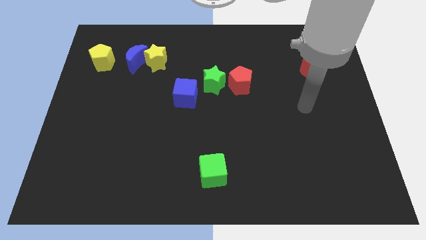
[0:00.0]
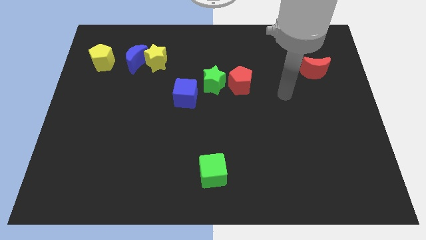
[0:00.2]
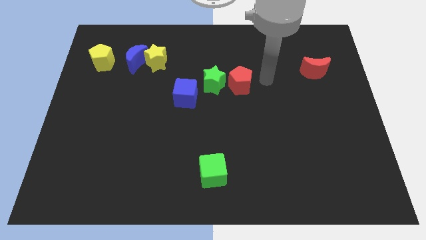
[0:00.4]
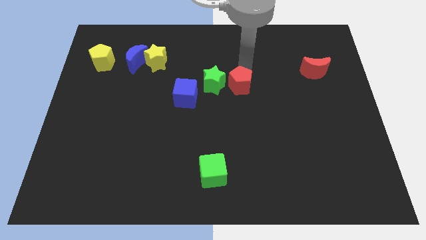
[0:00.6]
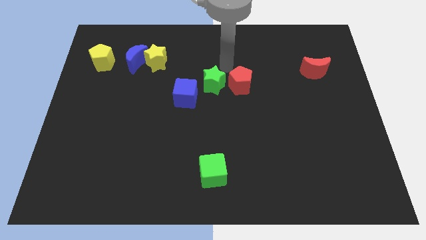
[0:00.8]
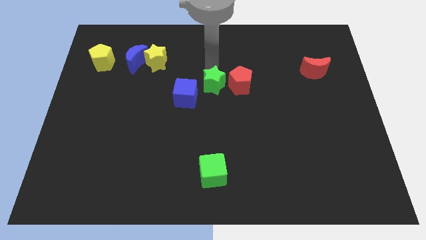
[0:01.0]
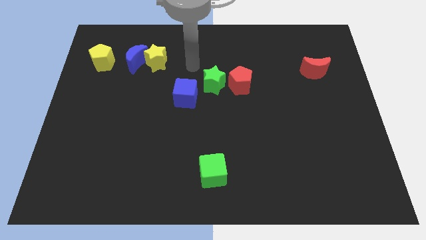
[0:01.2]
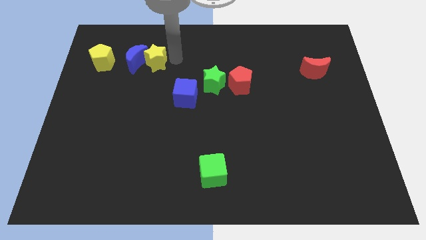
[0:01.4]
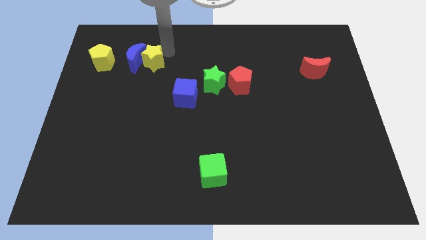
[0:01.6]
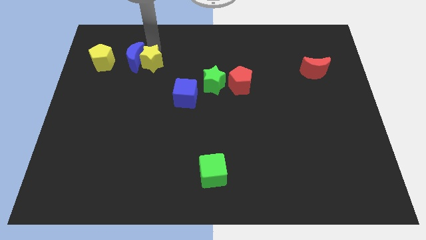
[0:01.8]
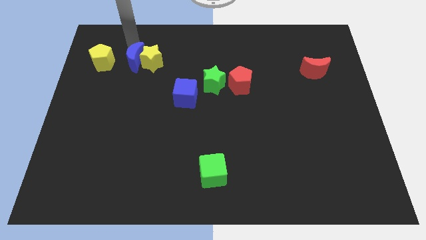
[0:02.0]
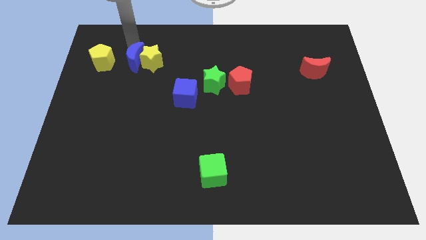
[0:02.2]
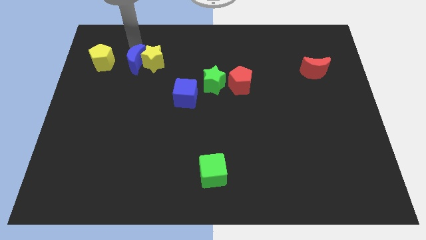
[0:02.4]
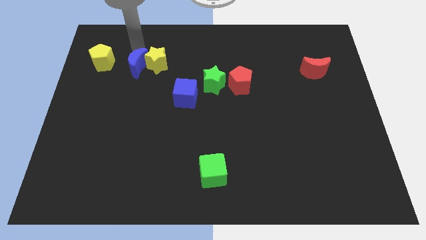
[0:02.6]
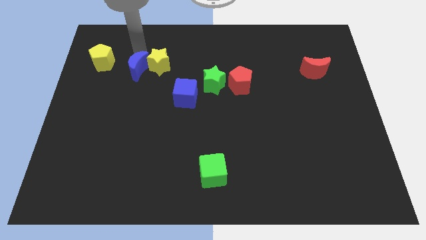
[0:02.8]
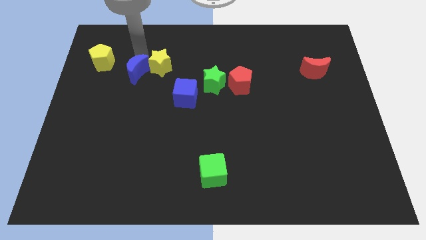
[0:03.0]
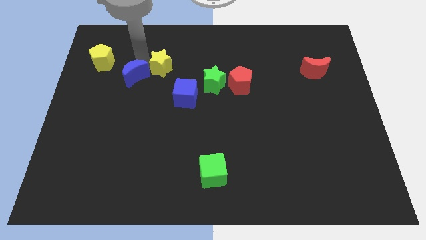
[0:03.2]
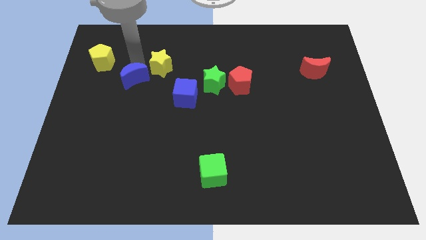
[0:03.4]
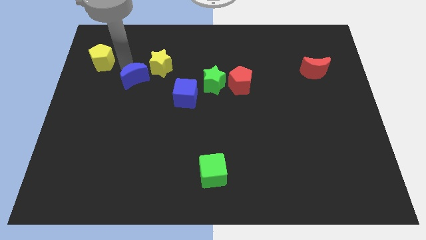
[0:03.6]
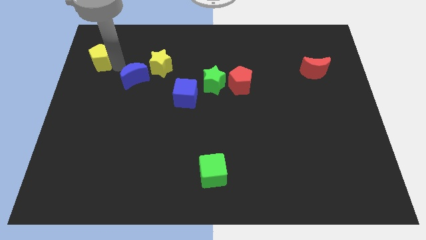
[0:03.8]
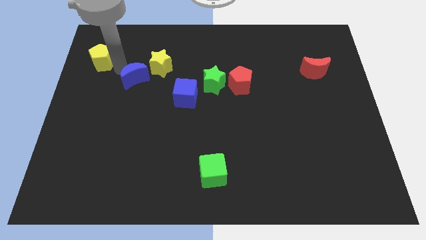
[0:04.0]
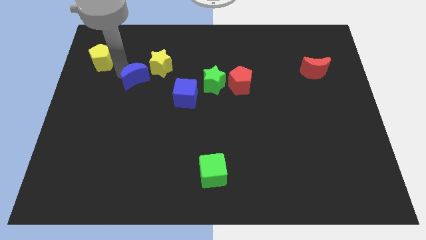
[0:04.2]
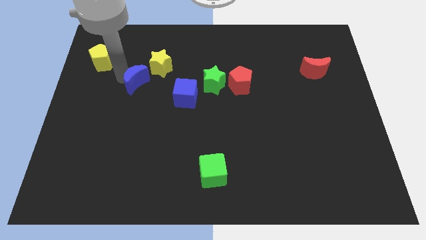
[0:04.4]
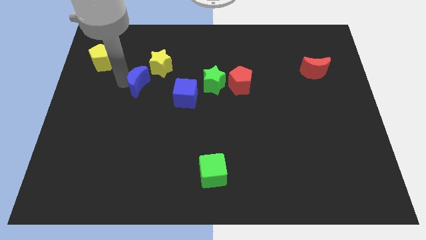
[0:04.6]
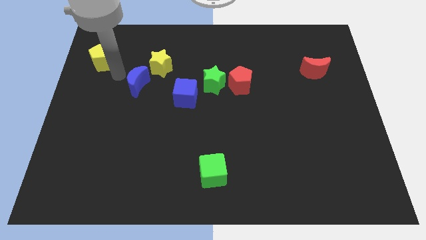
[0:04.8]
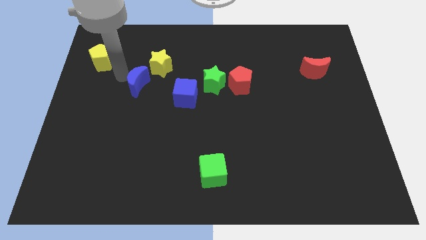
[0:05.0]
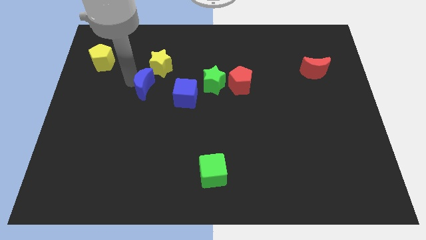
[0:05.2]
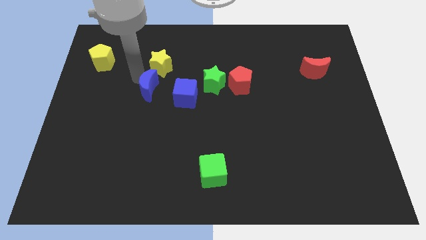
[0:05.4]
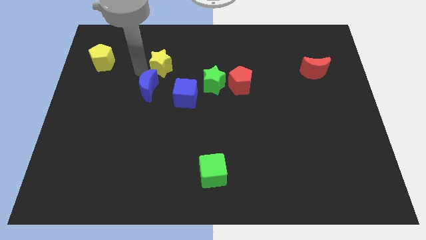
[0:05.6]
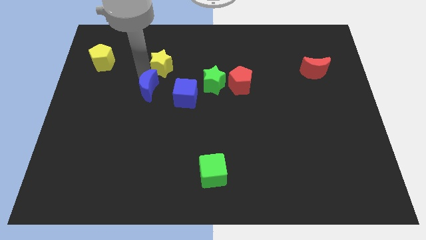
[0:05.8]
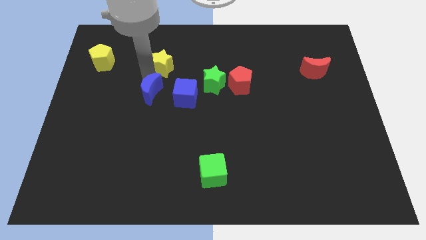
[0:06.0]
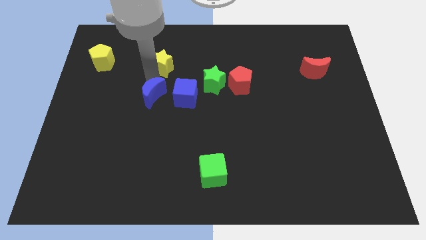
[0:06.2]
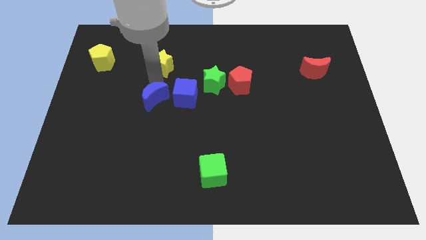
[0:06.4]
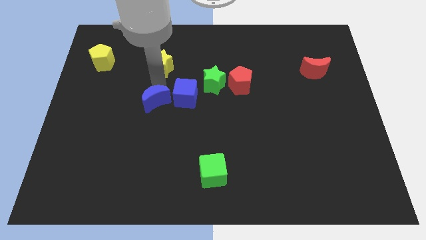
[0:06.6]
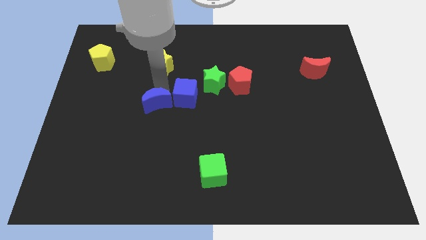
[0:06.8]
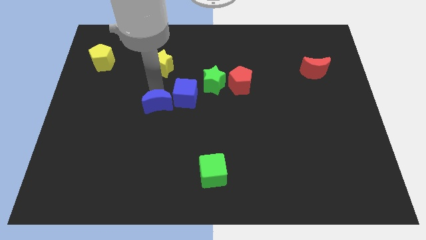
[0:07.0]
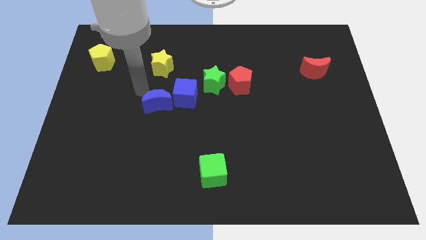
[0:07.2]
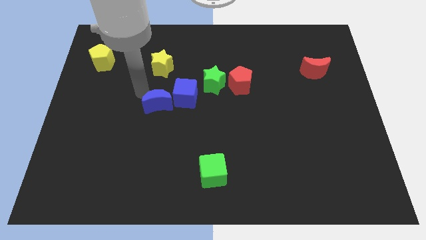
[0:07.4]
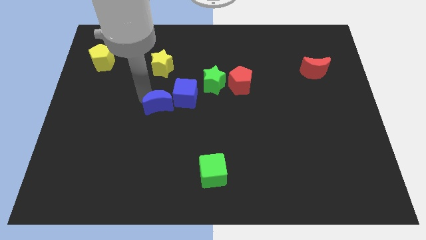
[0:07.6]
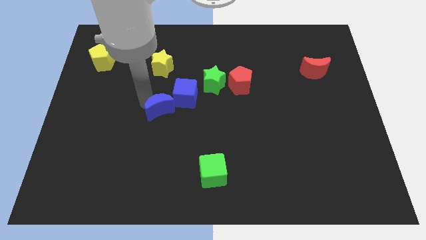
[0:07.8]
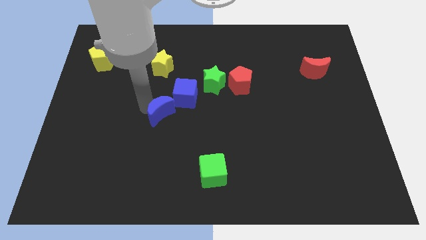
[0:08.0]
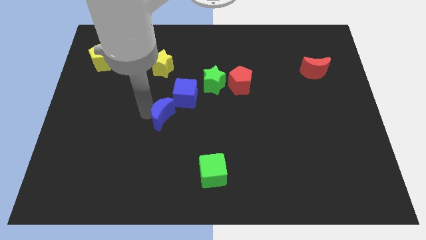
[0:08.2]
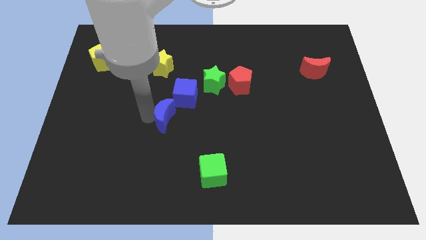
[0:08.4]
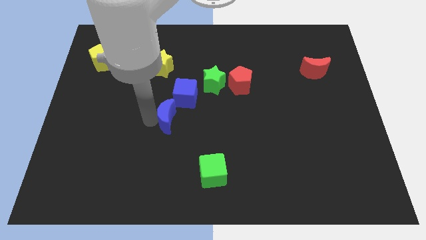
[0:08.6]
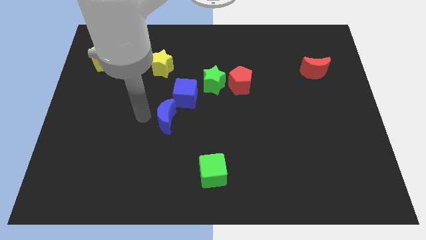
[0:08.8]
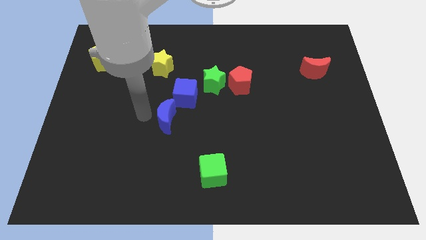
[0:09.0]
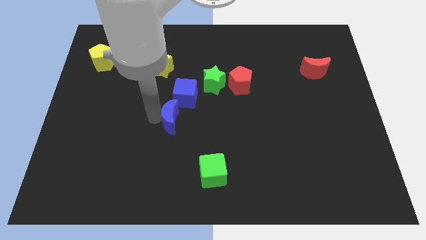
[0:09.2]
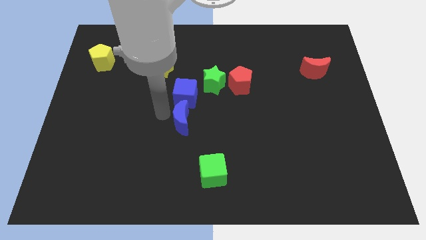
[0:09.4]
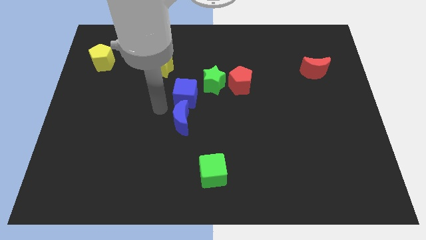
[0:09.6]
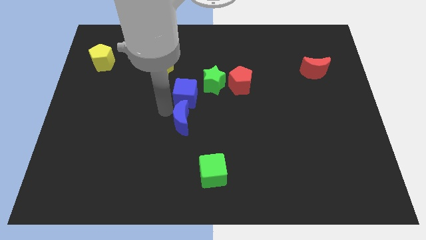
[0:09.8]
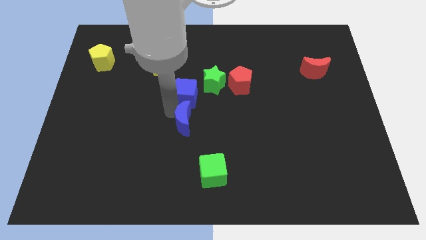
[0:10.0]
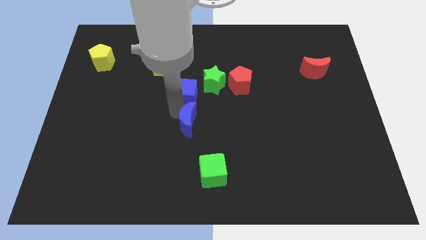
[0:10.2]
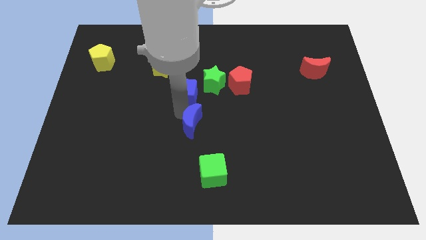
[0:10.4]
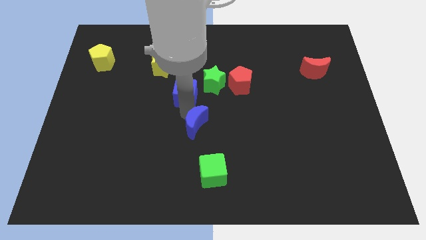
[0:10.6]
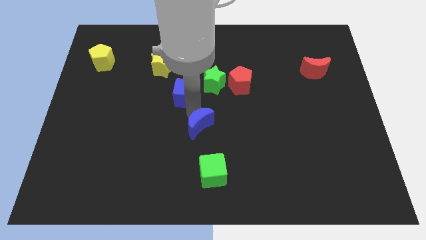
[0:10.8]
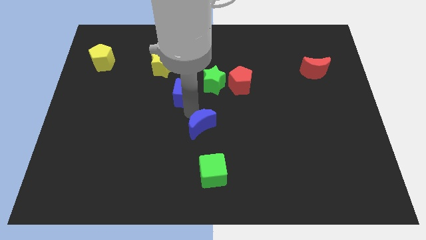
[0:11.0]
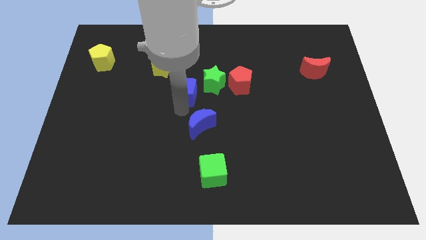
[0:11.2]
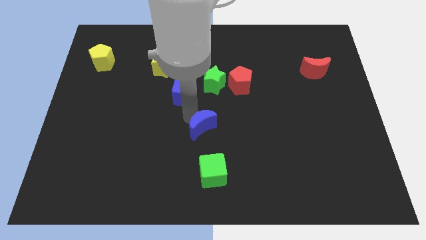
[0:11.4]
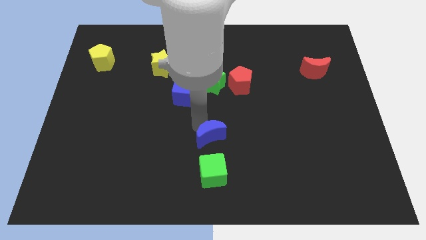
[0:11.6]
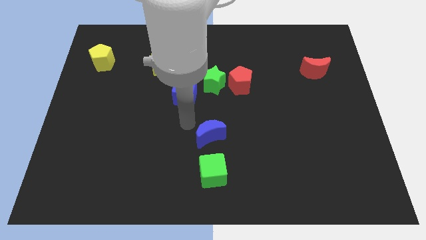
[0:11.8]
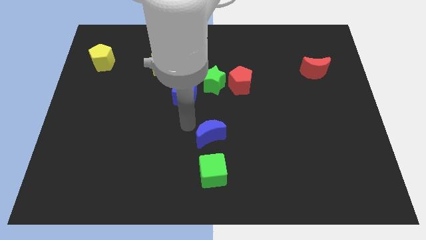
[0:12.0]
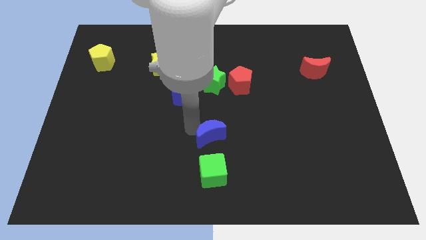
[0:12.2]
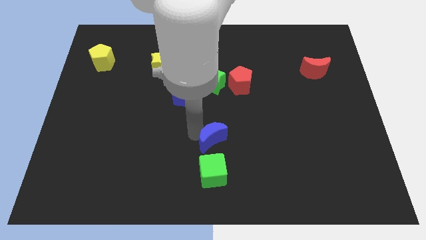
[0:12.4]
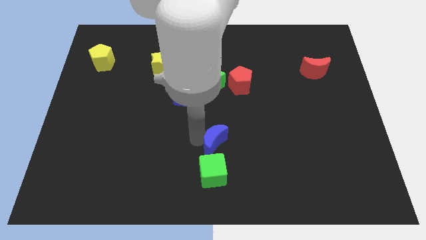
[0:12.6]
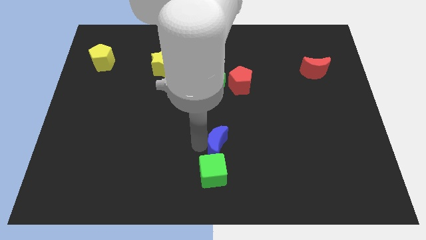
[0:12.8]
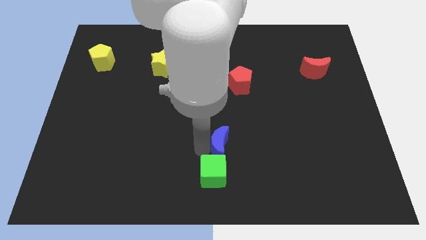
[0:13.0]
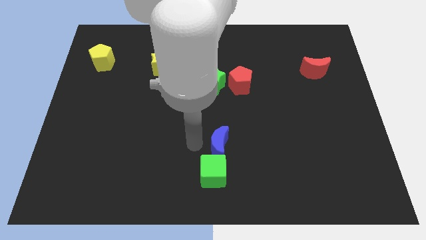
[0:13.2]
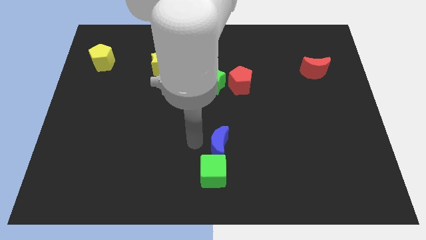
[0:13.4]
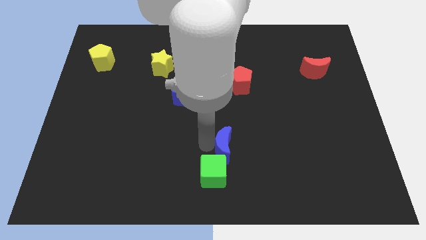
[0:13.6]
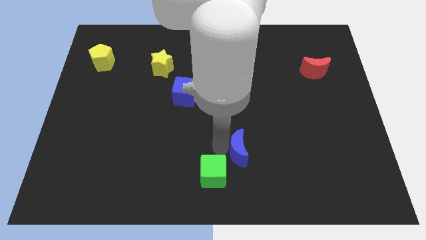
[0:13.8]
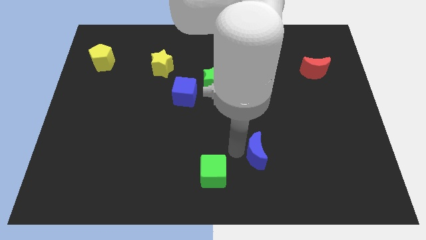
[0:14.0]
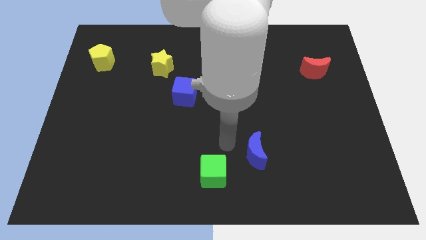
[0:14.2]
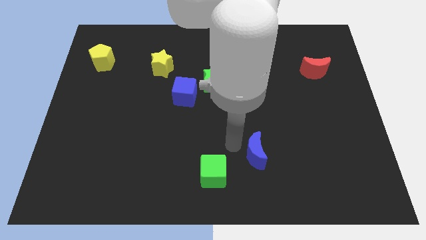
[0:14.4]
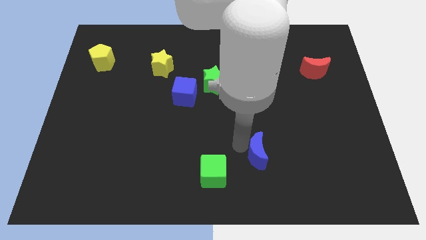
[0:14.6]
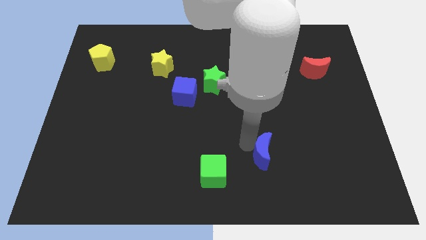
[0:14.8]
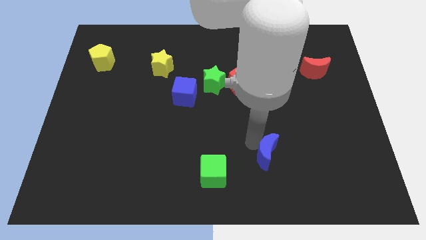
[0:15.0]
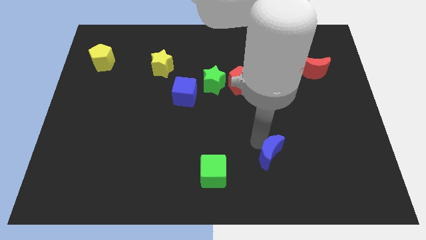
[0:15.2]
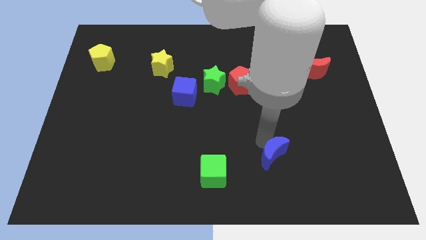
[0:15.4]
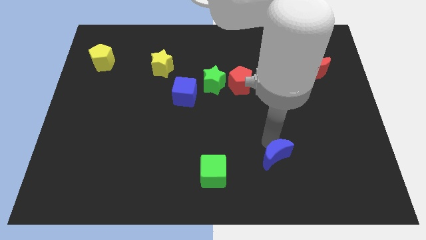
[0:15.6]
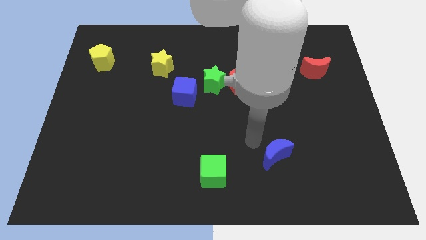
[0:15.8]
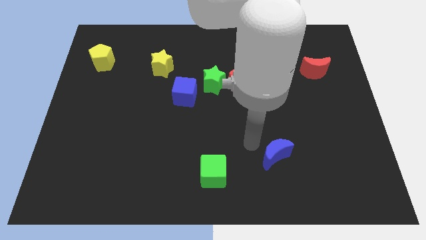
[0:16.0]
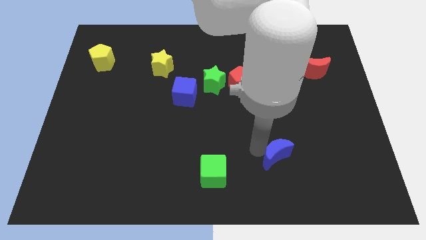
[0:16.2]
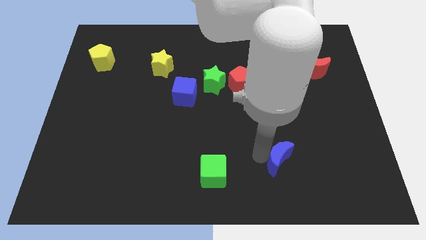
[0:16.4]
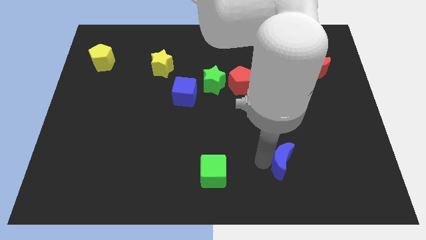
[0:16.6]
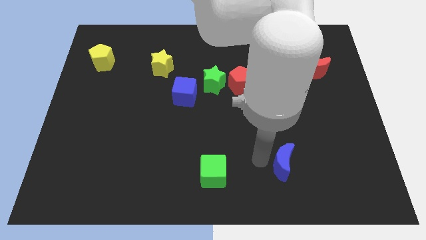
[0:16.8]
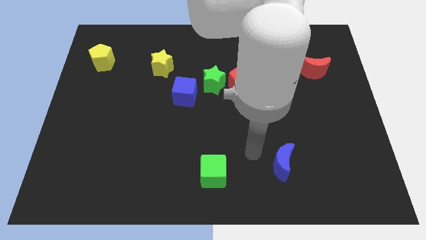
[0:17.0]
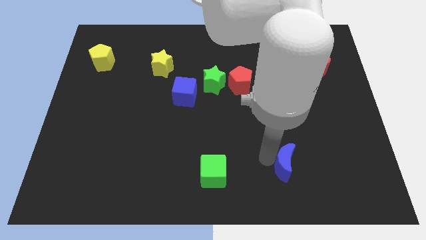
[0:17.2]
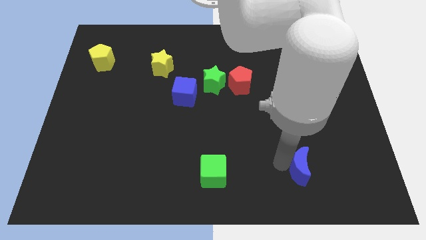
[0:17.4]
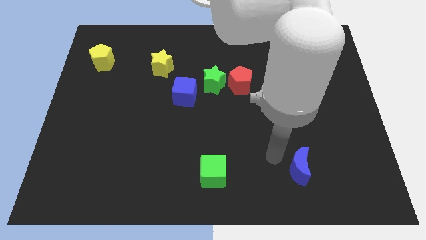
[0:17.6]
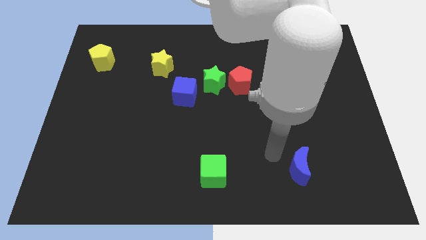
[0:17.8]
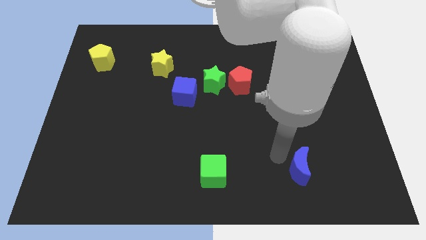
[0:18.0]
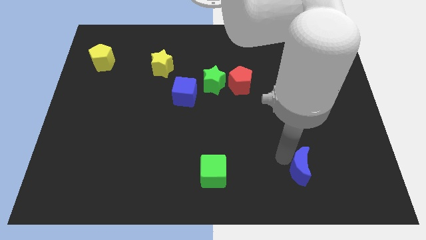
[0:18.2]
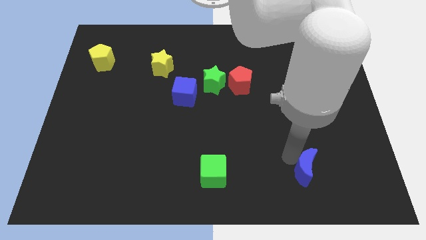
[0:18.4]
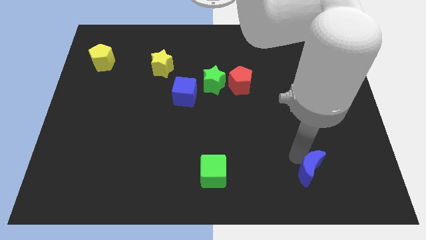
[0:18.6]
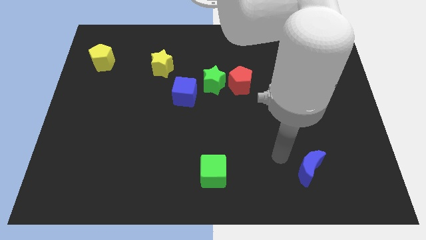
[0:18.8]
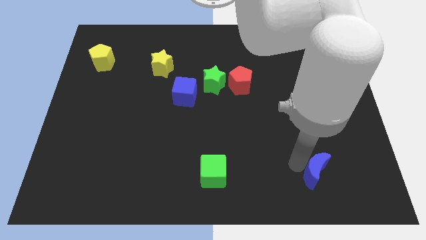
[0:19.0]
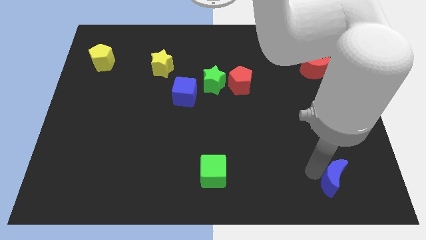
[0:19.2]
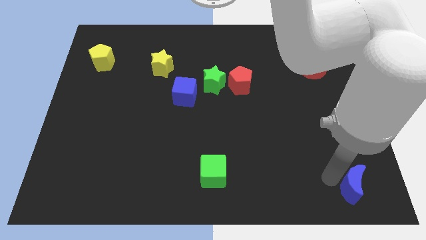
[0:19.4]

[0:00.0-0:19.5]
slide the blue moon to the lower right corner
